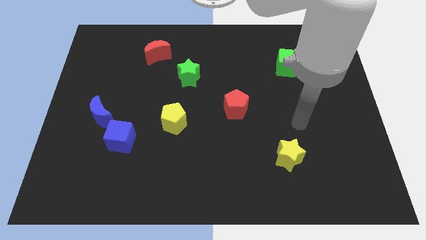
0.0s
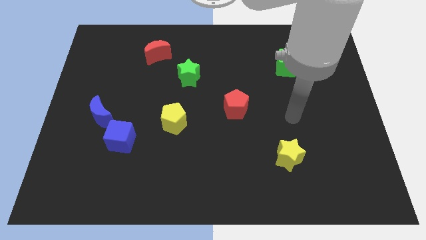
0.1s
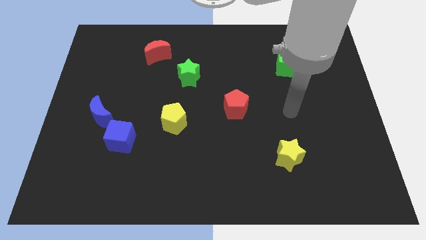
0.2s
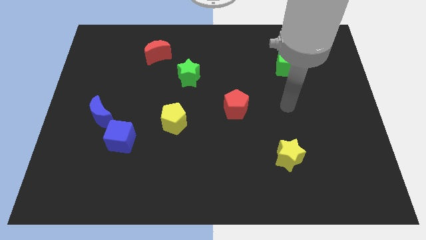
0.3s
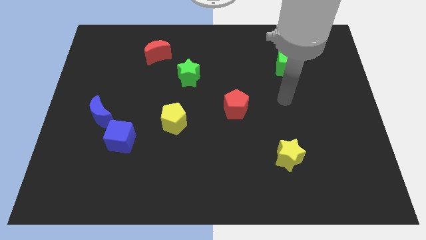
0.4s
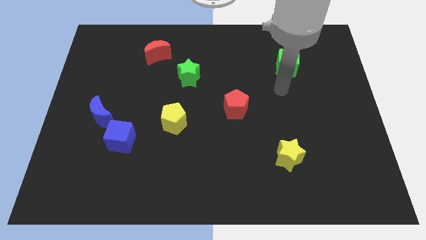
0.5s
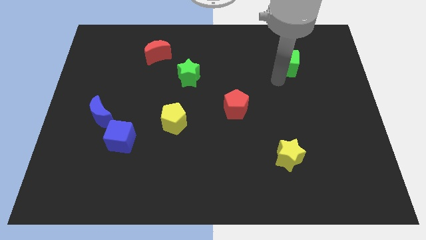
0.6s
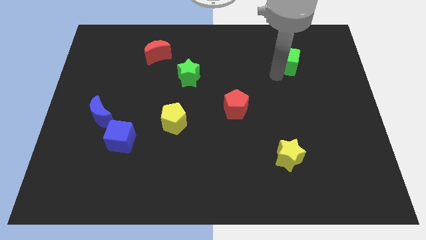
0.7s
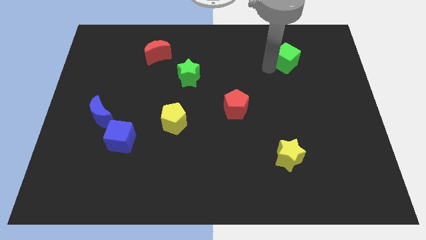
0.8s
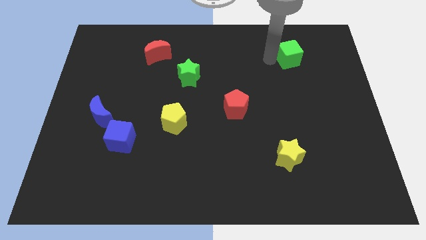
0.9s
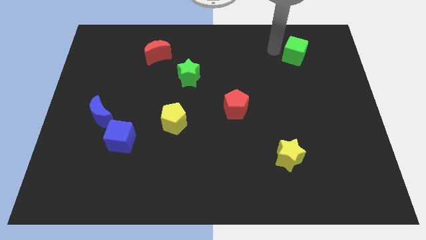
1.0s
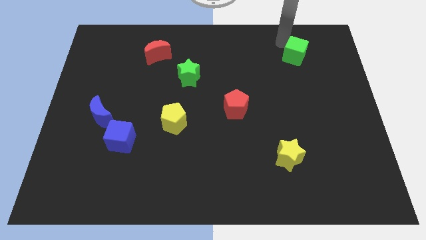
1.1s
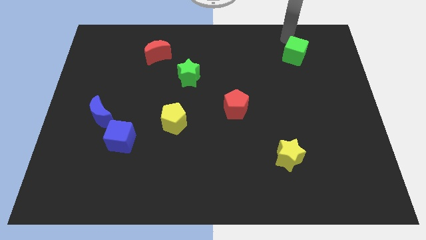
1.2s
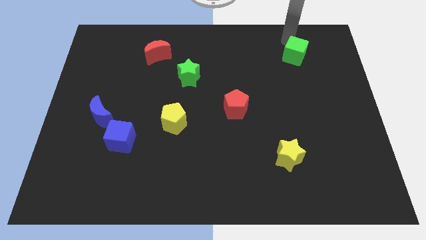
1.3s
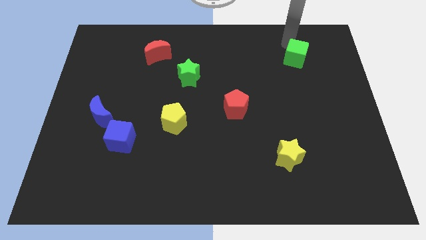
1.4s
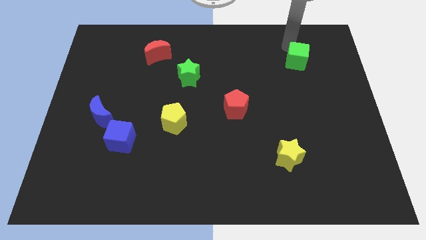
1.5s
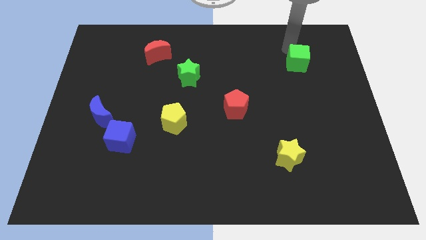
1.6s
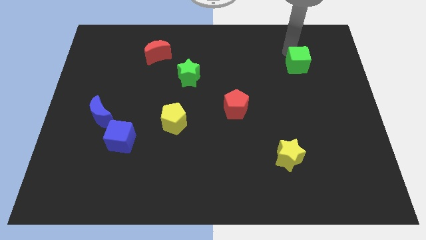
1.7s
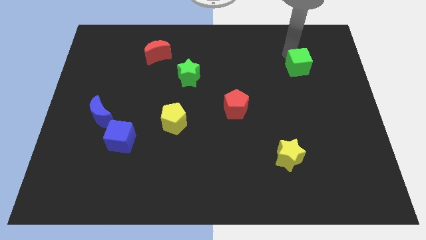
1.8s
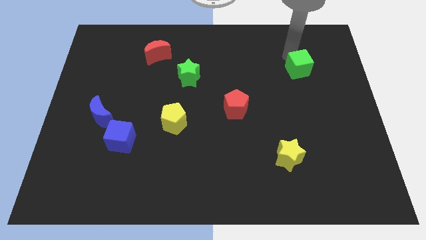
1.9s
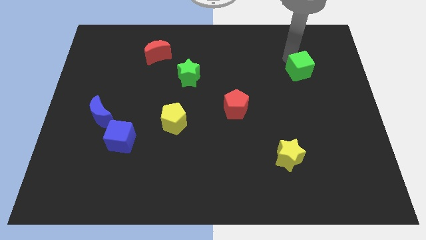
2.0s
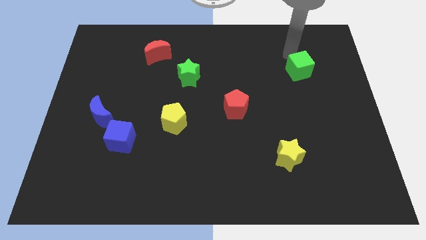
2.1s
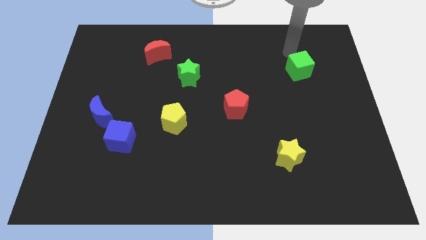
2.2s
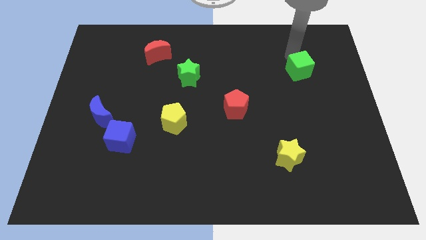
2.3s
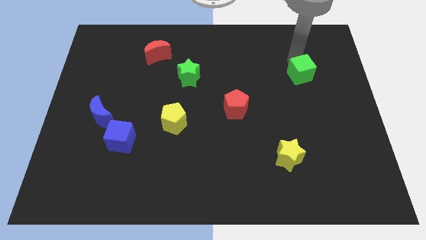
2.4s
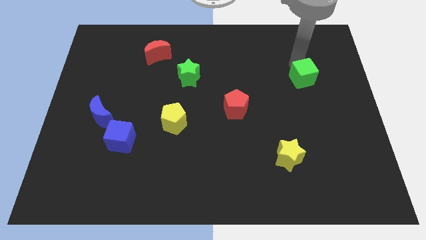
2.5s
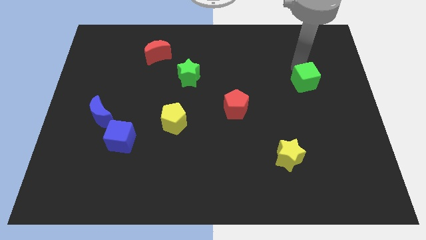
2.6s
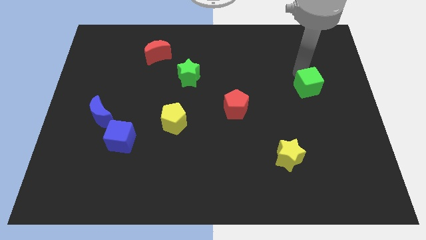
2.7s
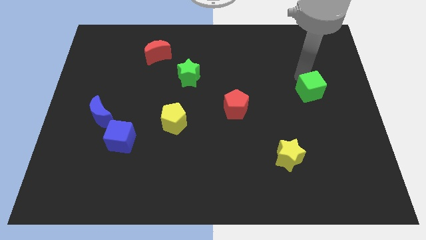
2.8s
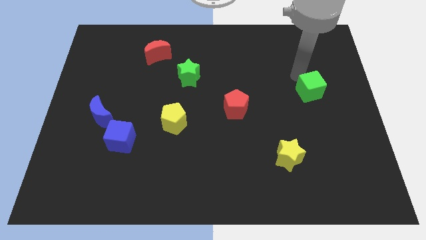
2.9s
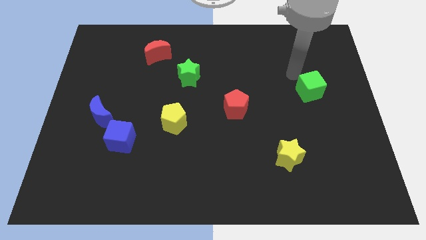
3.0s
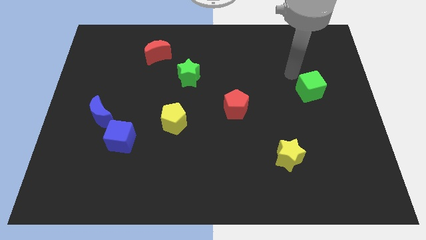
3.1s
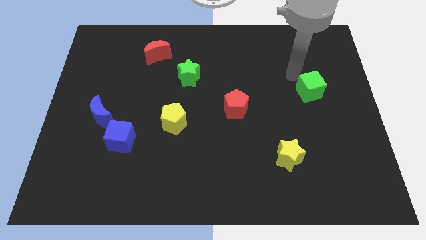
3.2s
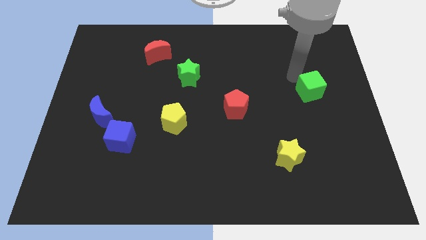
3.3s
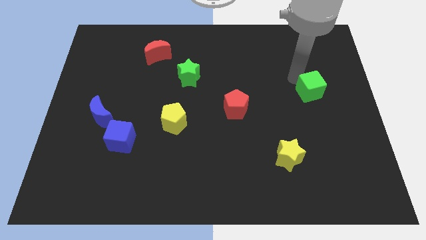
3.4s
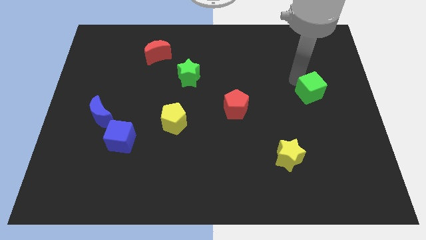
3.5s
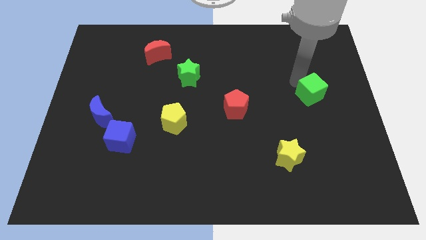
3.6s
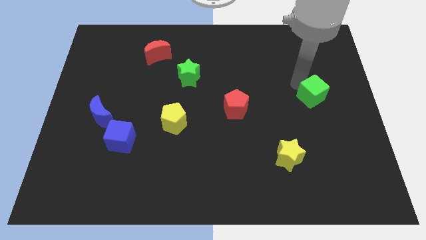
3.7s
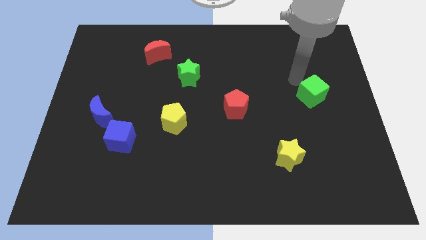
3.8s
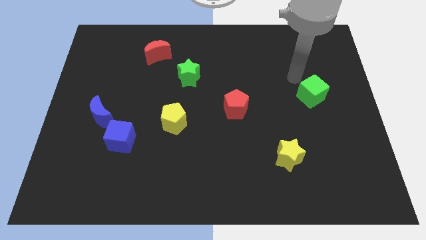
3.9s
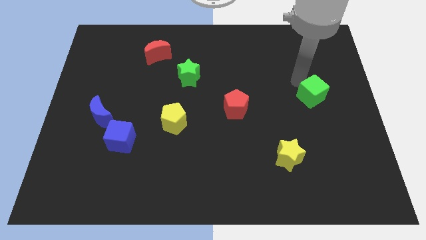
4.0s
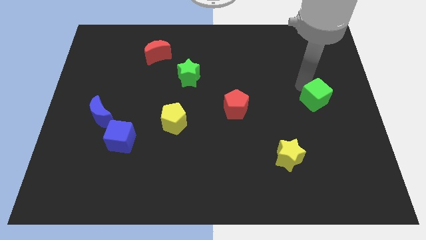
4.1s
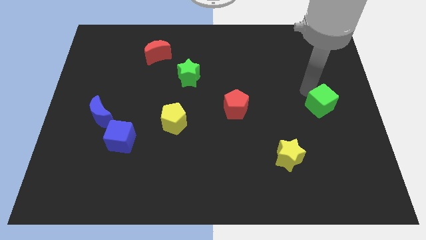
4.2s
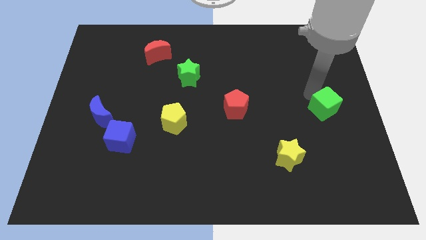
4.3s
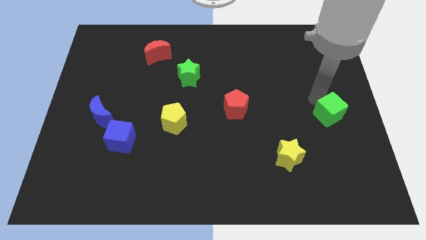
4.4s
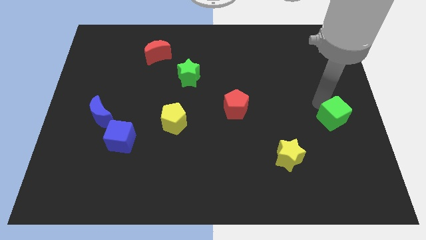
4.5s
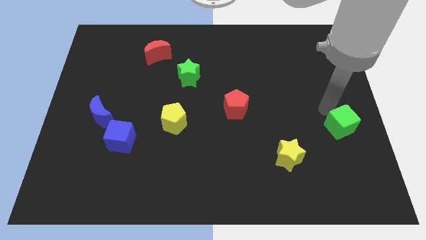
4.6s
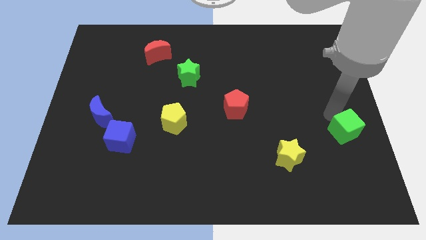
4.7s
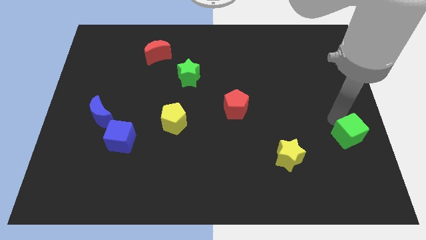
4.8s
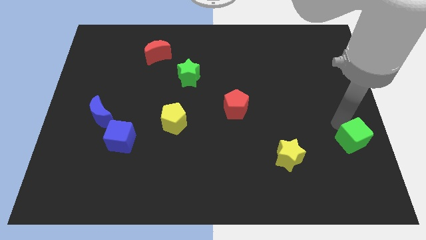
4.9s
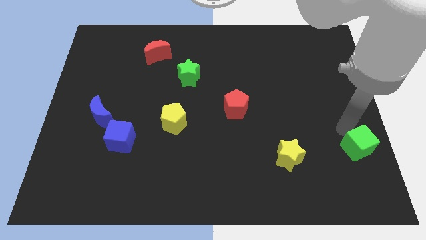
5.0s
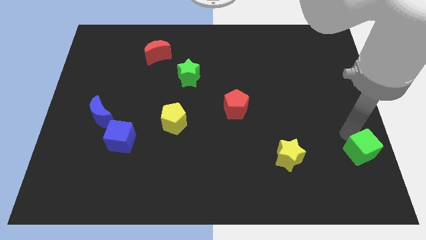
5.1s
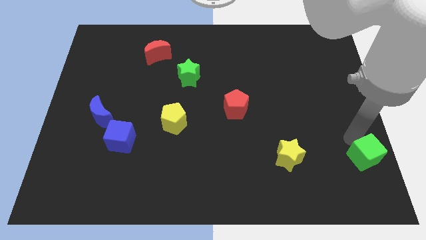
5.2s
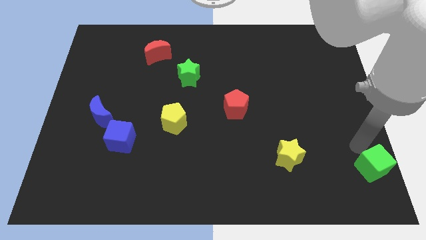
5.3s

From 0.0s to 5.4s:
slide the green cube to the bottom right corner

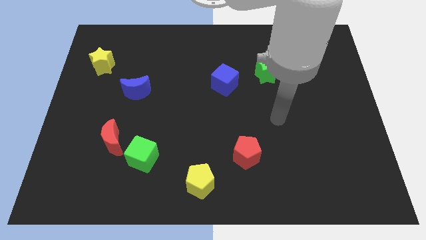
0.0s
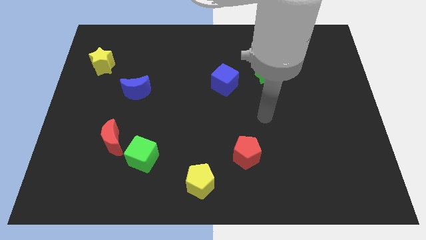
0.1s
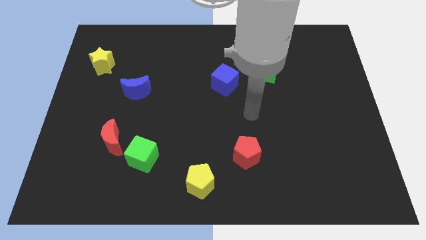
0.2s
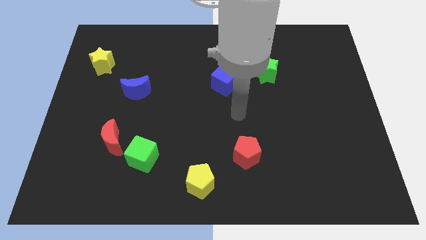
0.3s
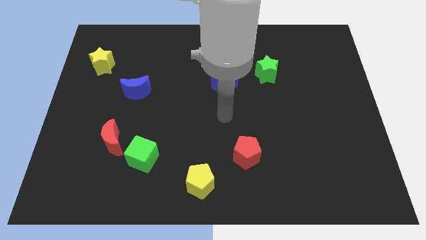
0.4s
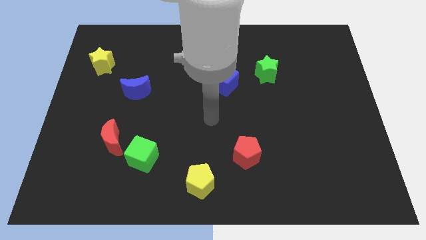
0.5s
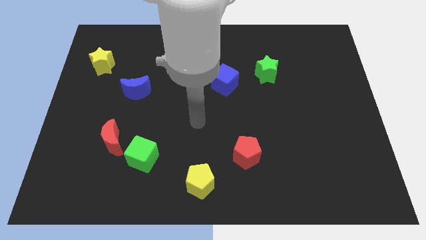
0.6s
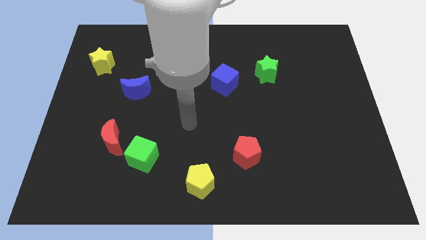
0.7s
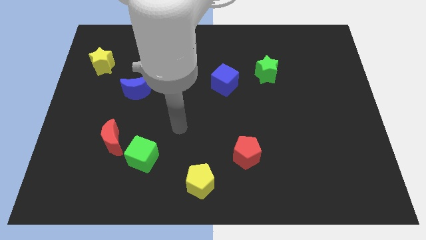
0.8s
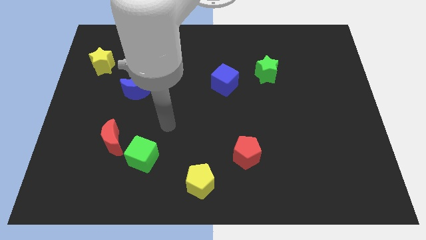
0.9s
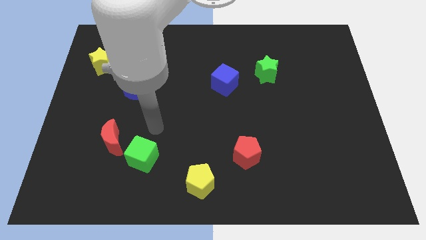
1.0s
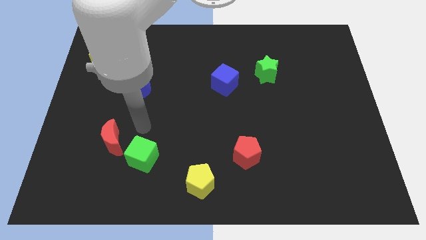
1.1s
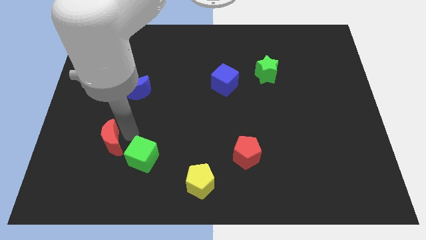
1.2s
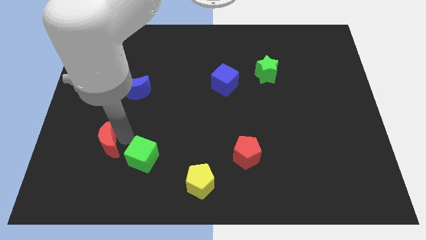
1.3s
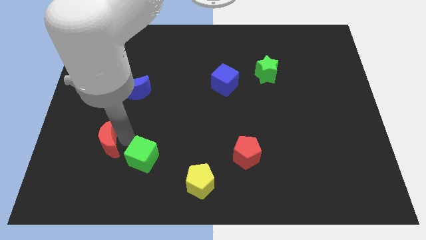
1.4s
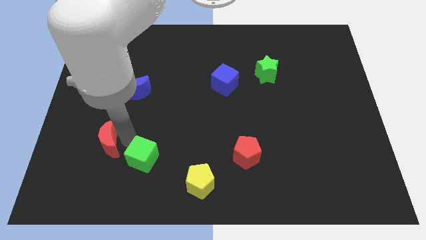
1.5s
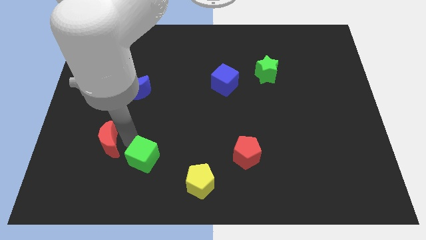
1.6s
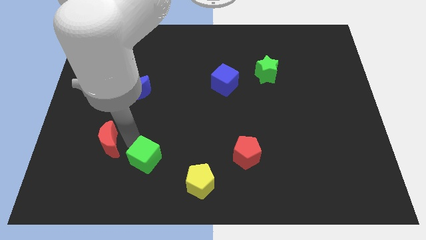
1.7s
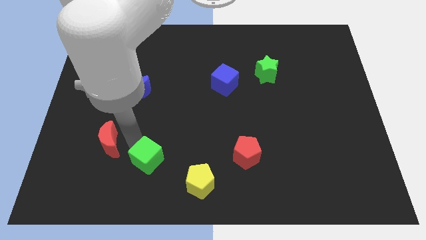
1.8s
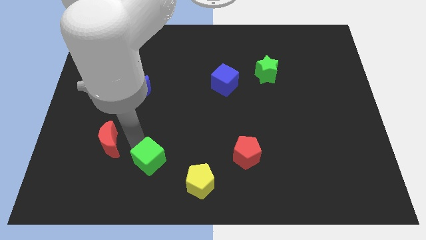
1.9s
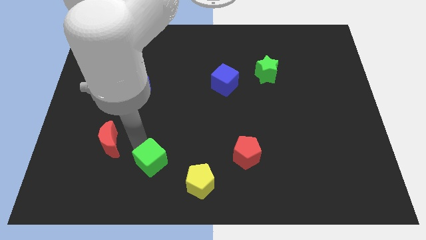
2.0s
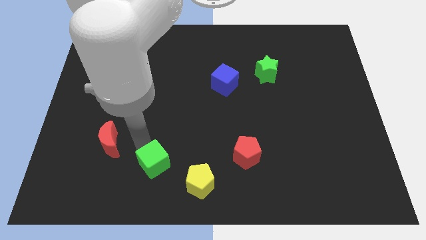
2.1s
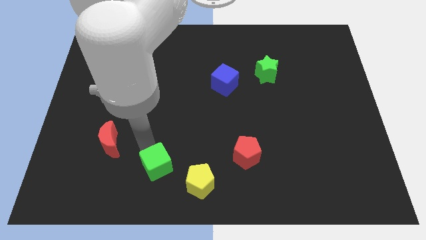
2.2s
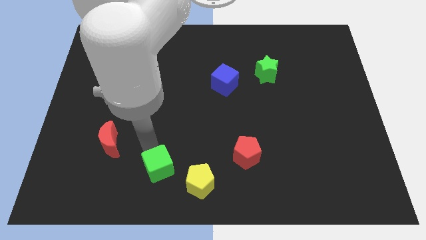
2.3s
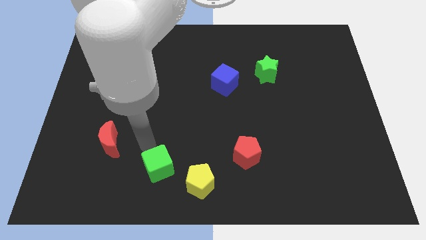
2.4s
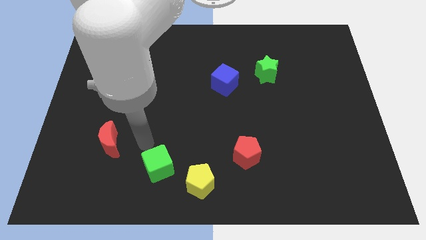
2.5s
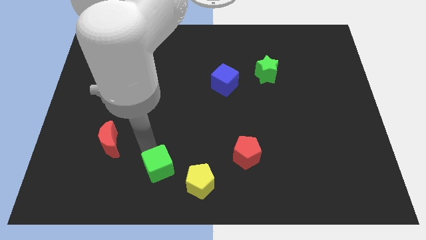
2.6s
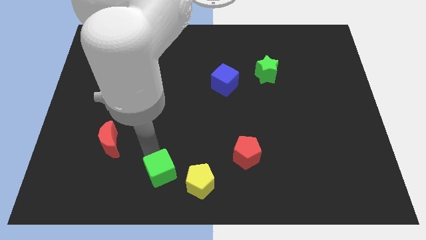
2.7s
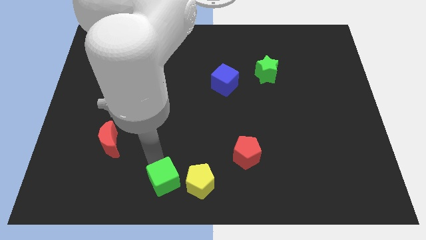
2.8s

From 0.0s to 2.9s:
put the green cube to the bottom side
